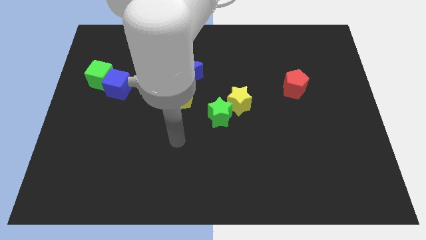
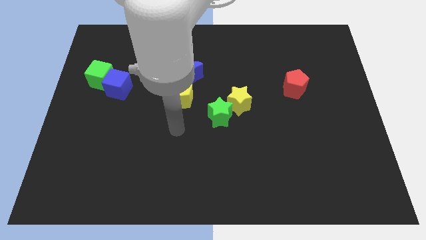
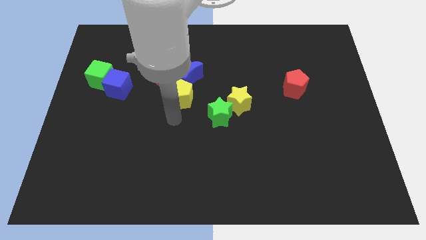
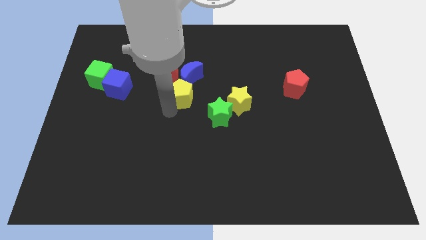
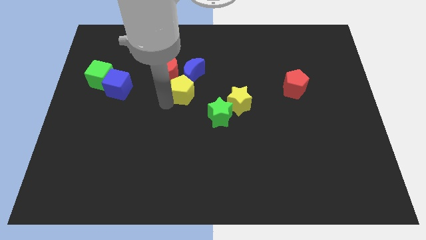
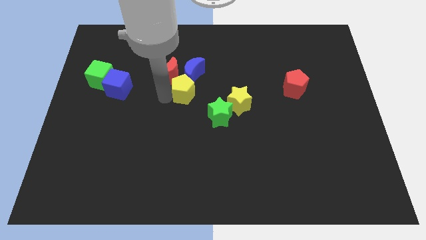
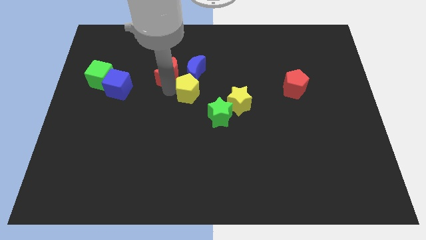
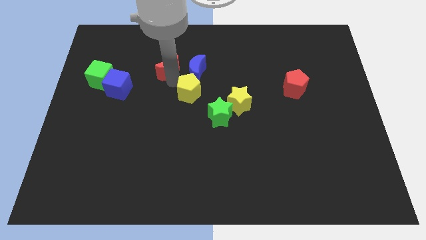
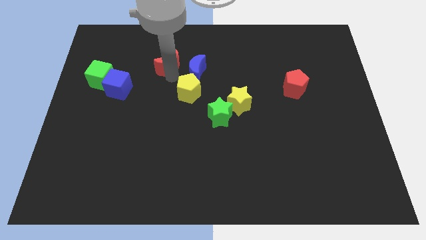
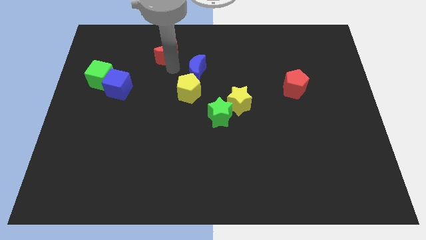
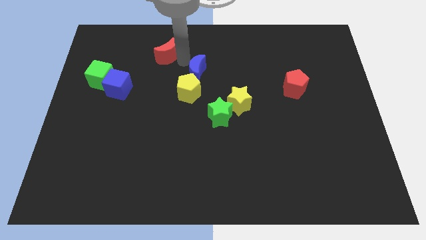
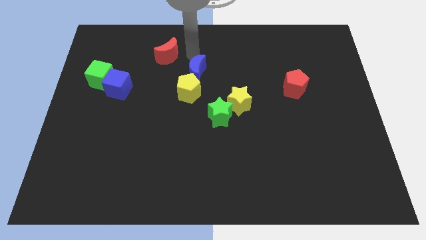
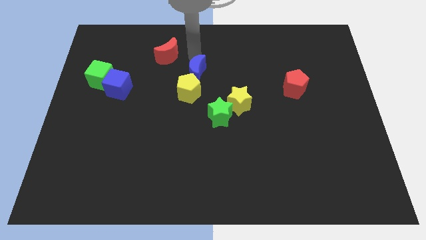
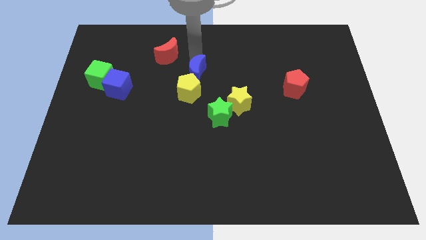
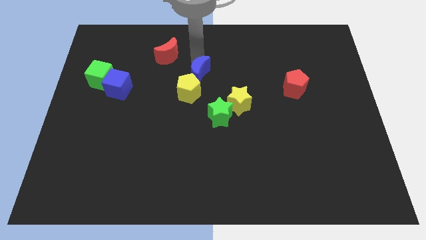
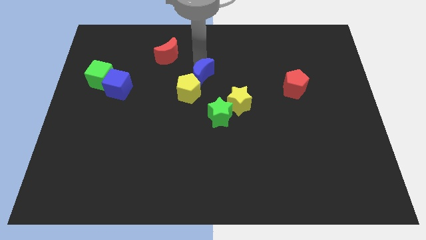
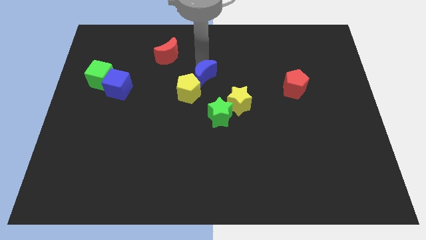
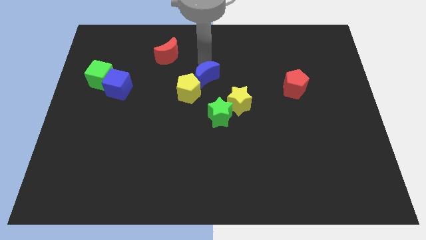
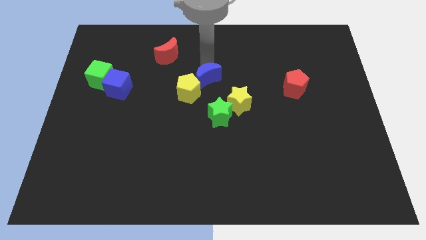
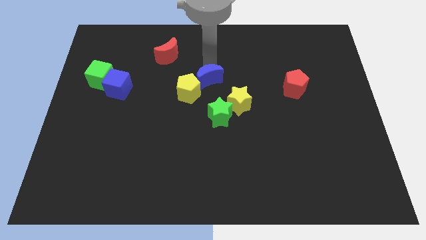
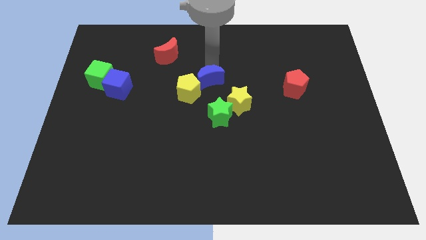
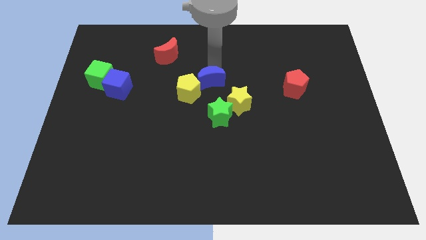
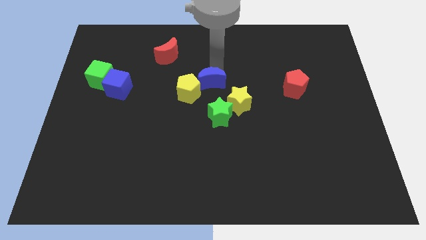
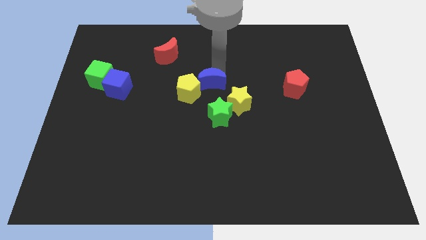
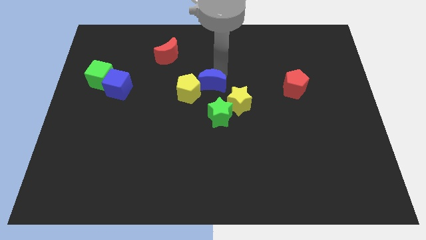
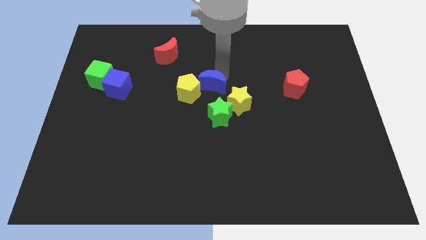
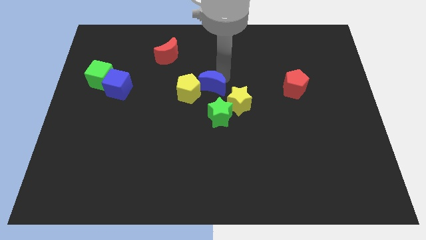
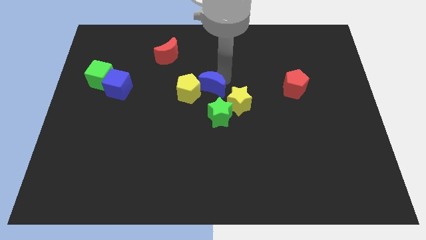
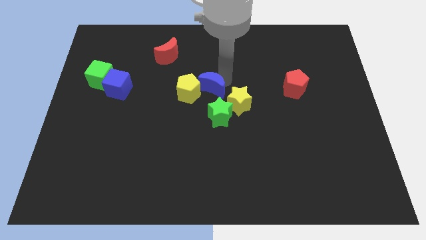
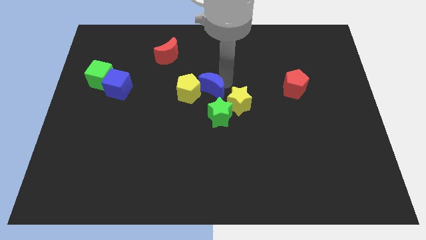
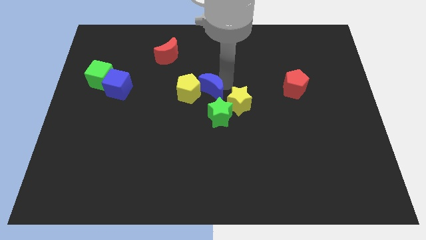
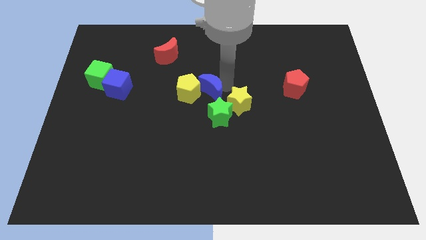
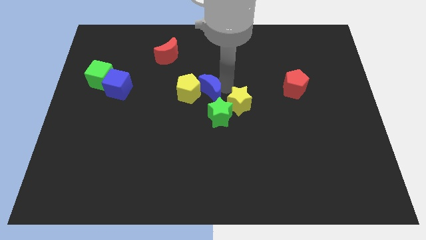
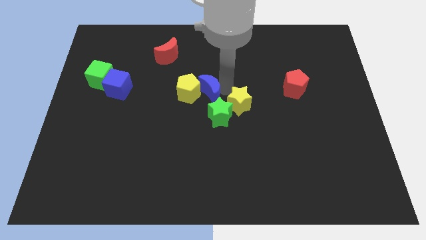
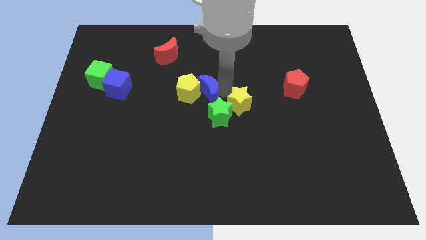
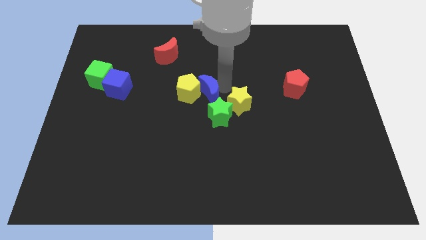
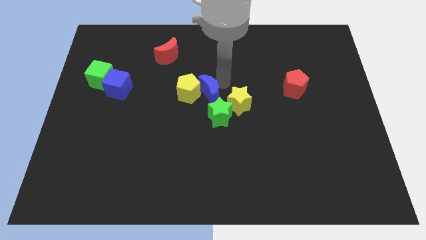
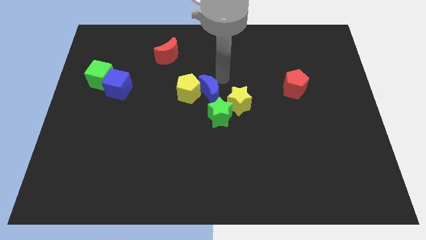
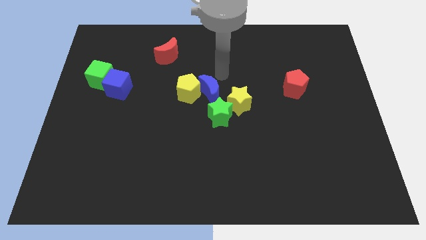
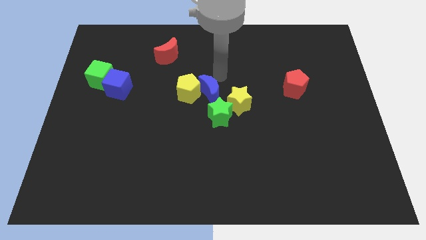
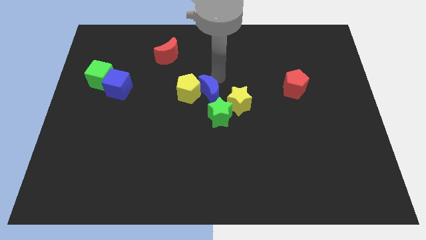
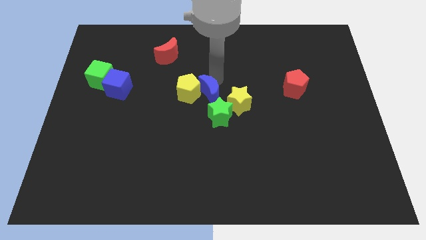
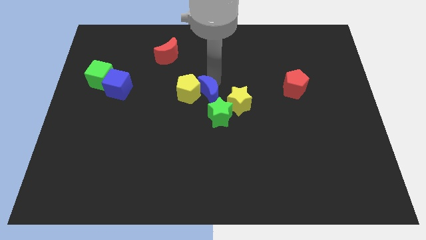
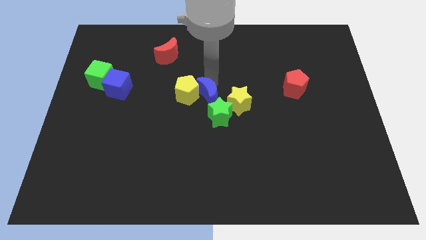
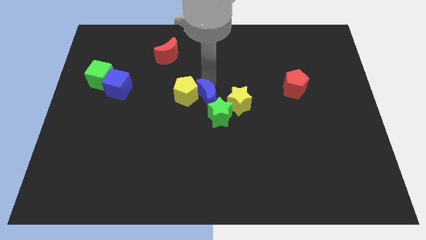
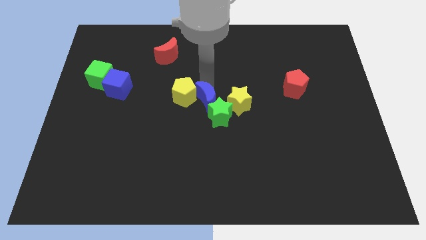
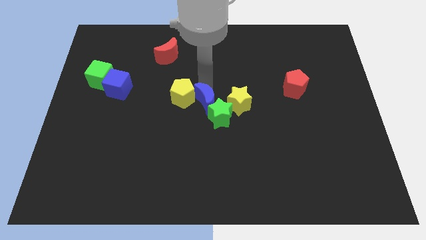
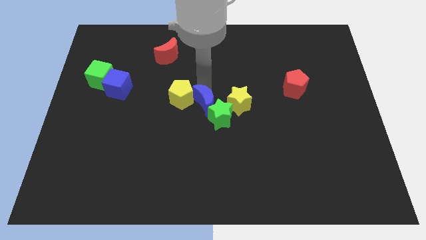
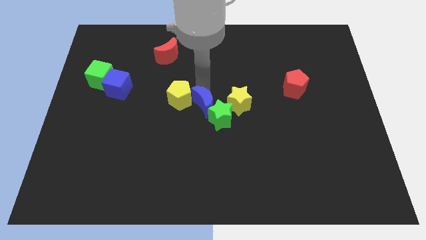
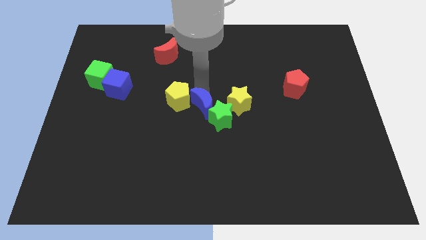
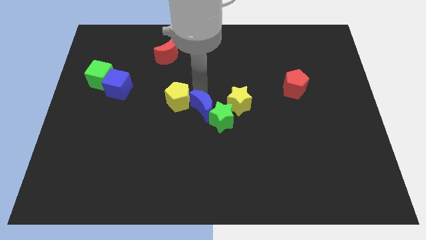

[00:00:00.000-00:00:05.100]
push the blue moon diagonally down and to the left of the yellow star

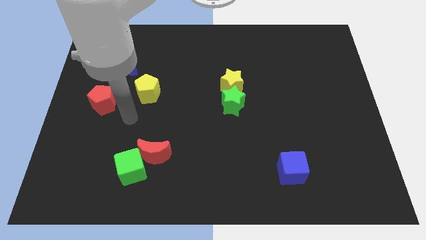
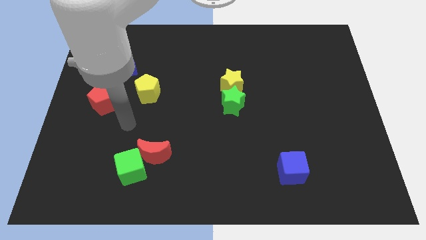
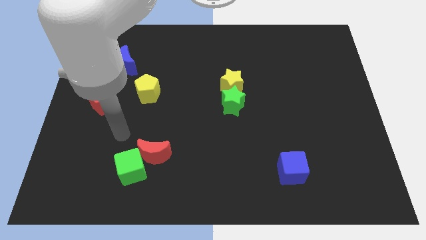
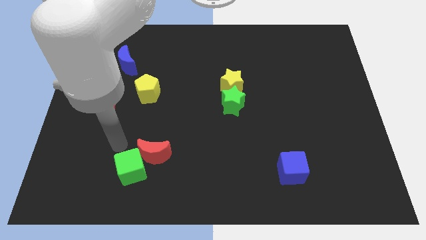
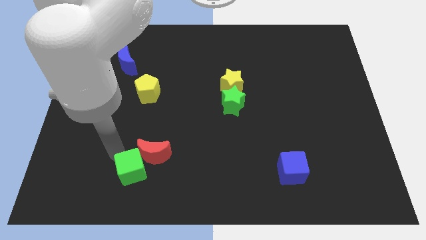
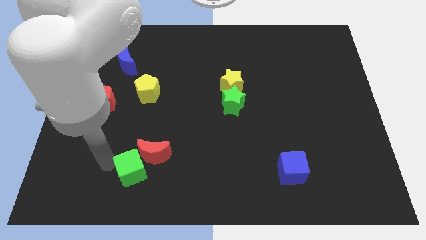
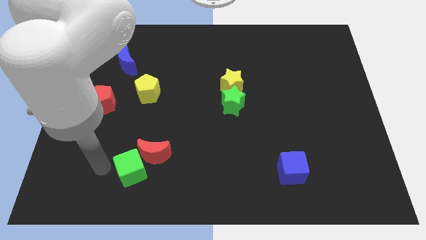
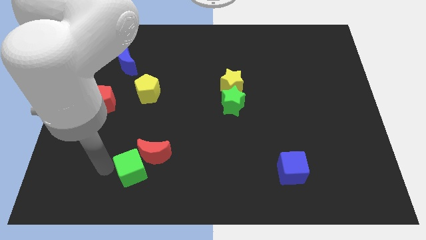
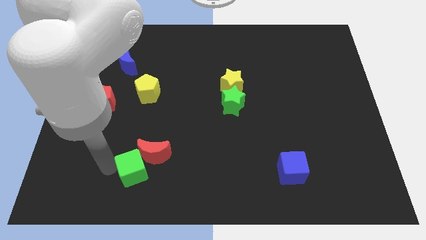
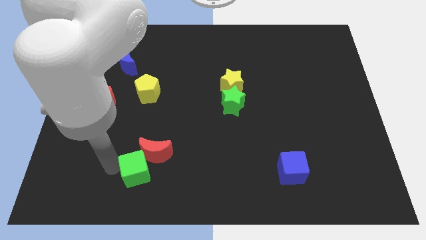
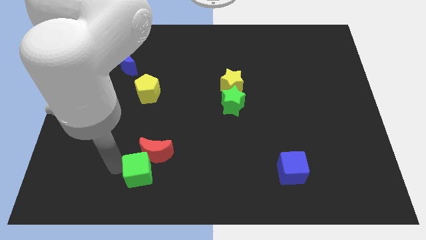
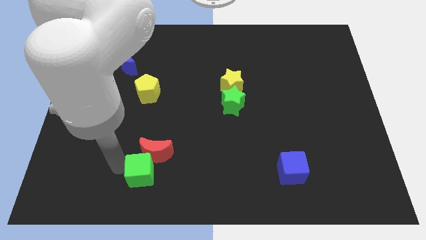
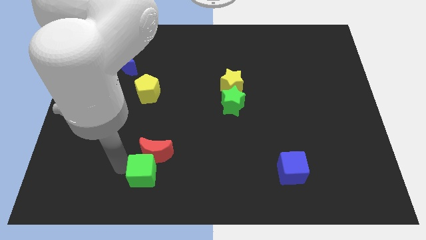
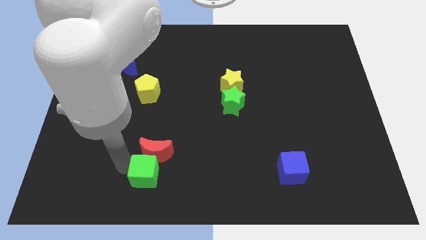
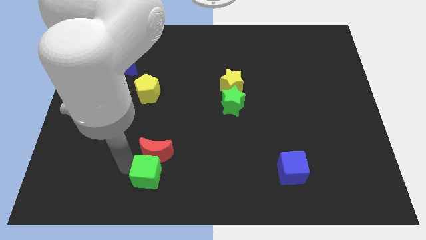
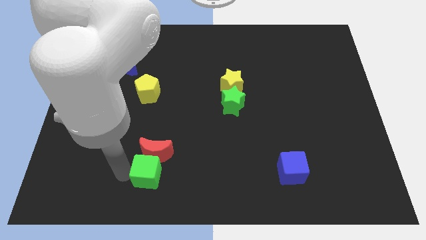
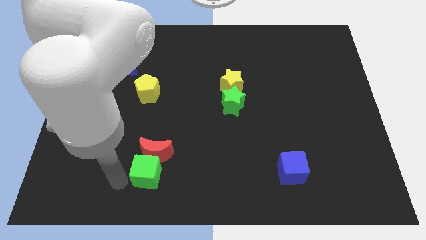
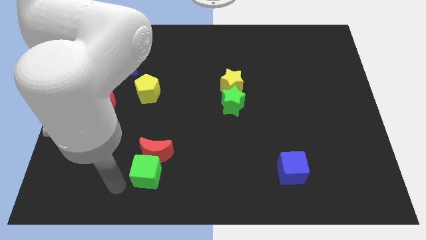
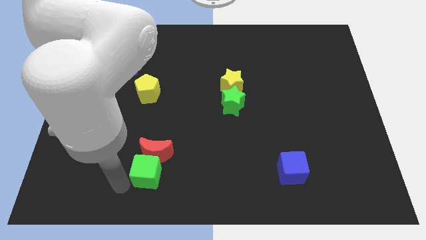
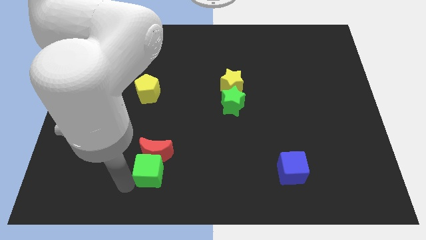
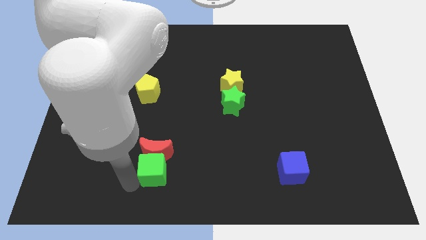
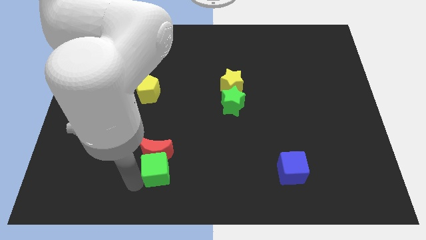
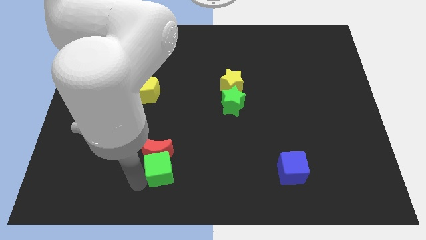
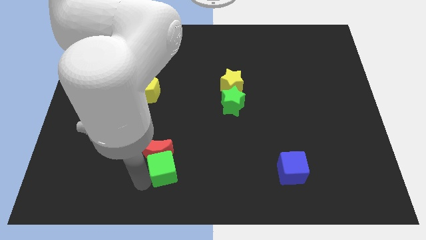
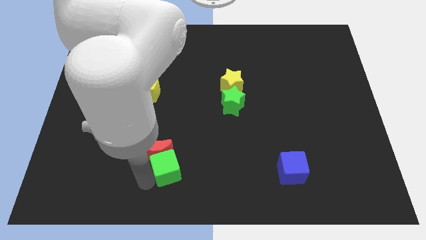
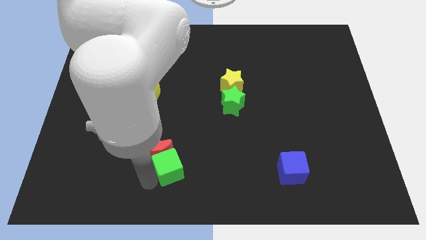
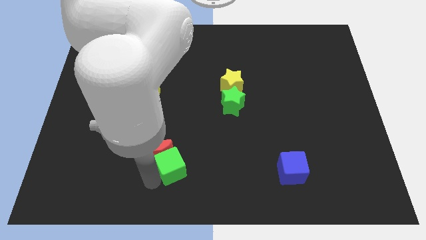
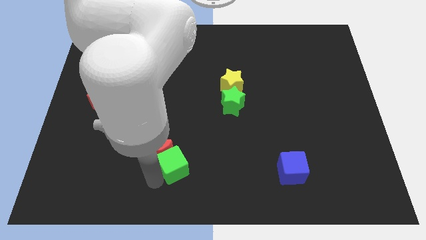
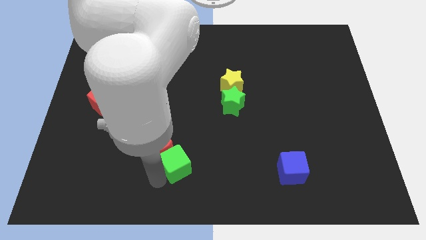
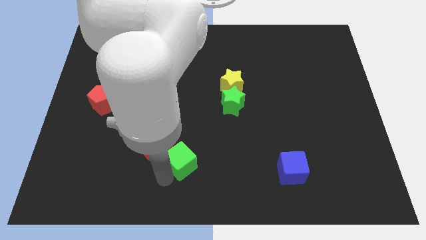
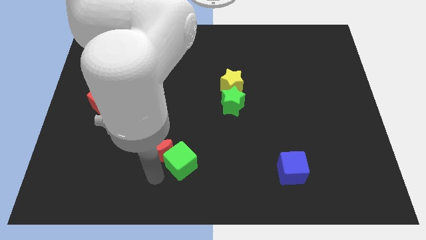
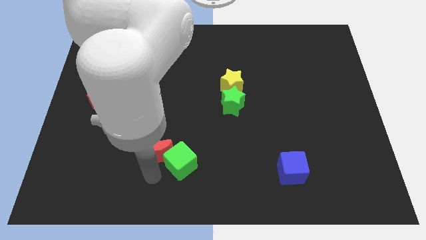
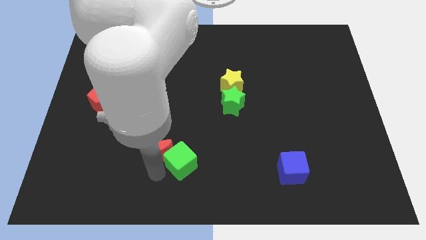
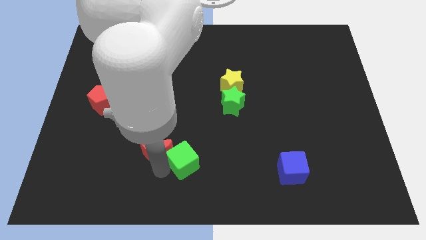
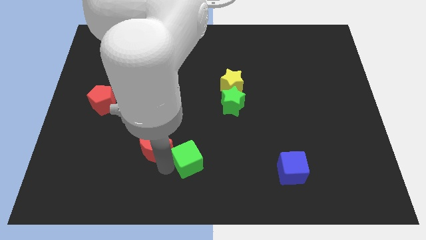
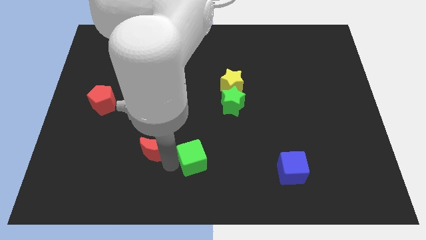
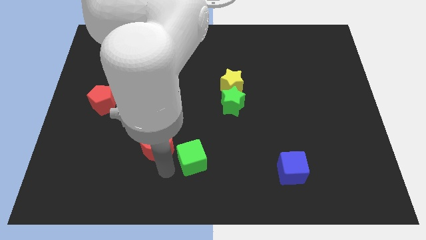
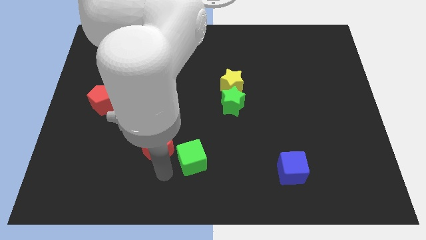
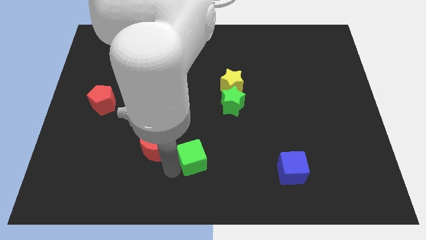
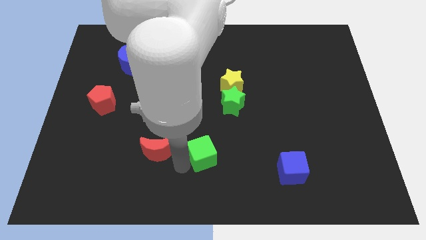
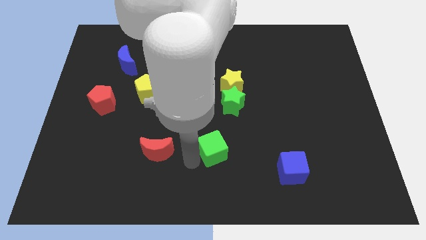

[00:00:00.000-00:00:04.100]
slide the green cube to the bottom of the green star
